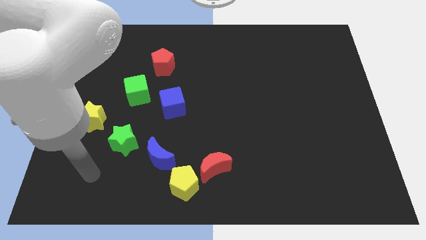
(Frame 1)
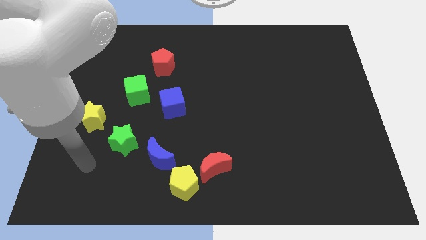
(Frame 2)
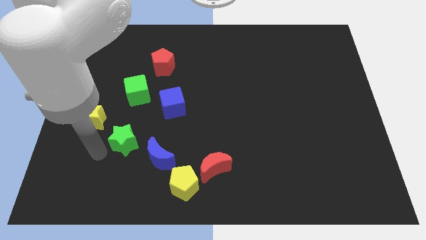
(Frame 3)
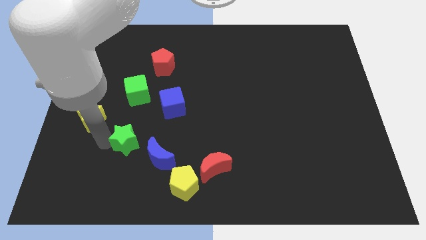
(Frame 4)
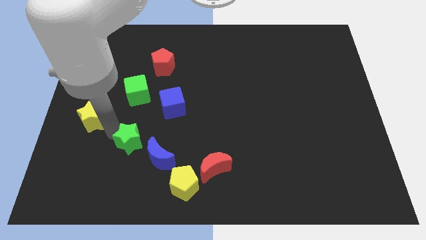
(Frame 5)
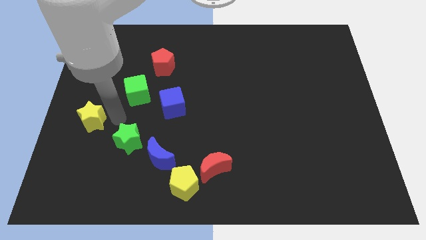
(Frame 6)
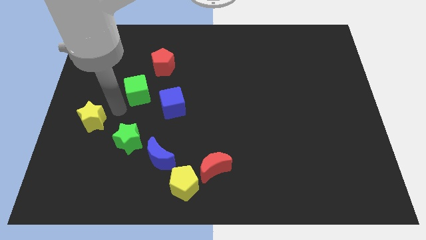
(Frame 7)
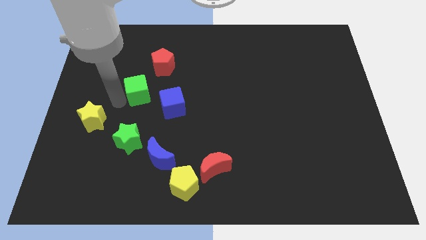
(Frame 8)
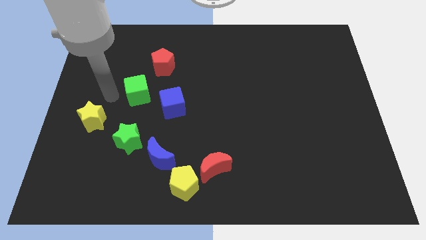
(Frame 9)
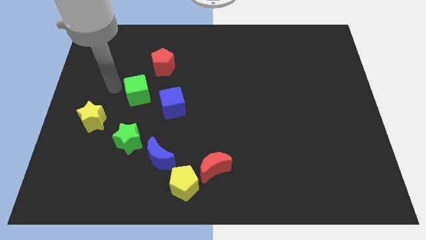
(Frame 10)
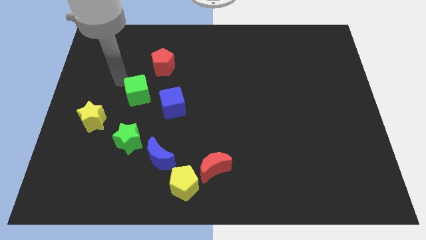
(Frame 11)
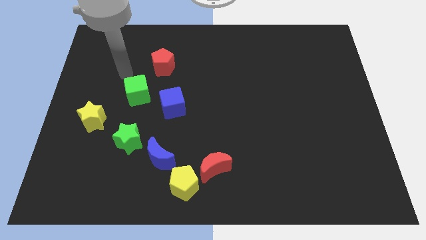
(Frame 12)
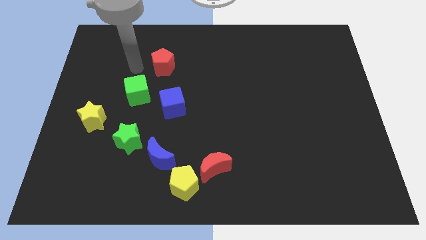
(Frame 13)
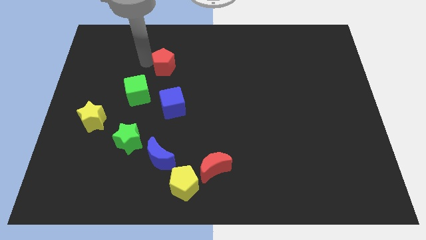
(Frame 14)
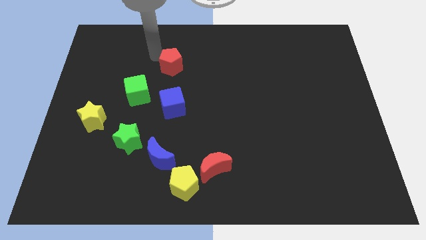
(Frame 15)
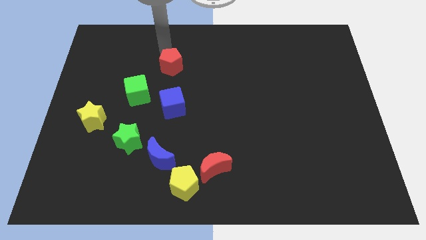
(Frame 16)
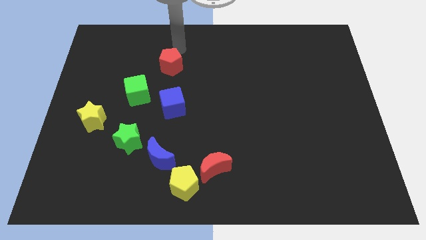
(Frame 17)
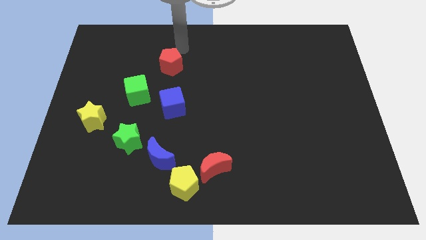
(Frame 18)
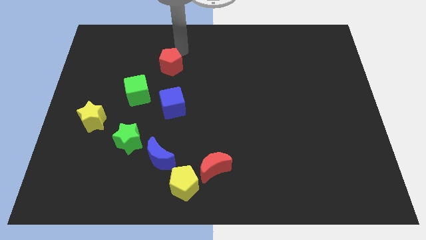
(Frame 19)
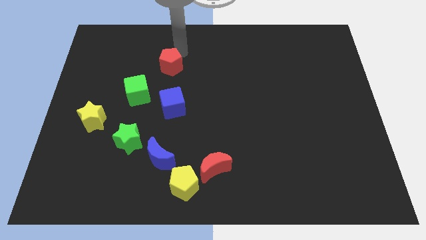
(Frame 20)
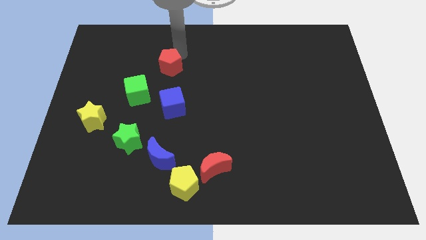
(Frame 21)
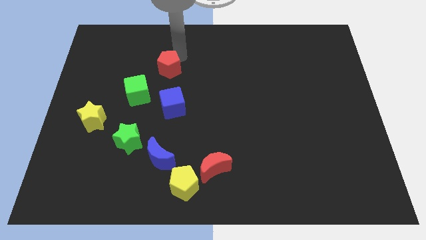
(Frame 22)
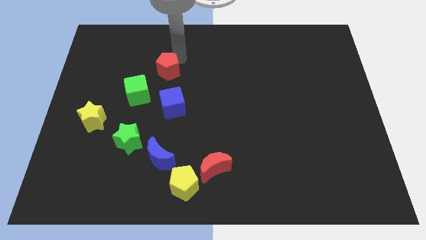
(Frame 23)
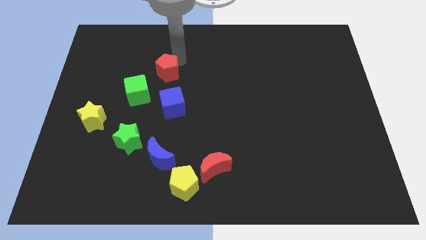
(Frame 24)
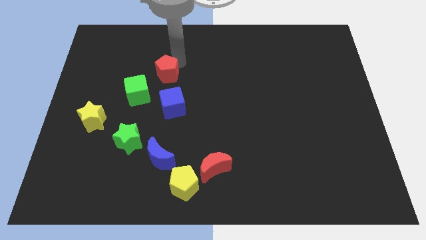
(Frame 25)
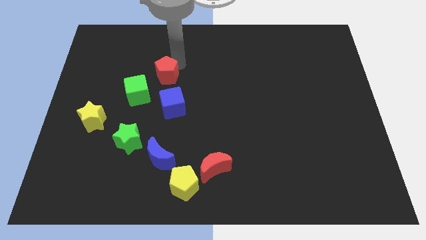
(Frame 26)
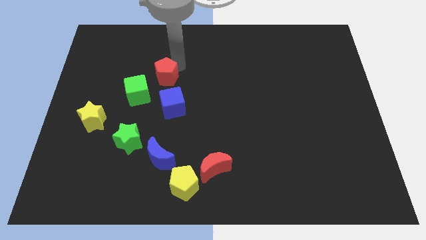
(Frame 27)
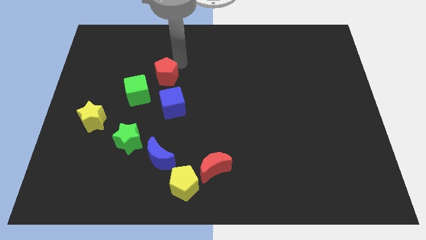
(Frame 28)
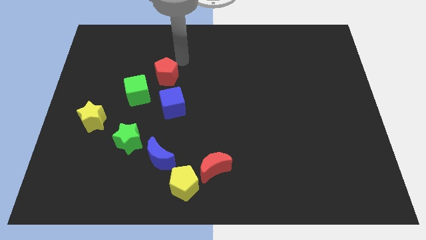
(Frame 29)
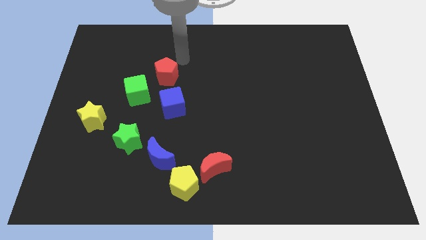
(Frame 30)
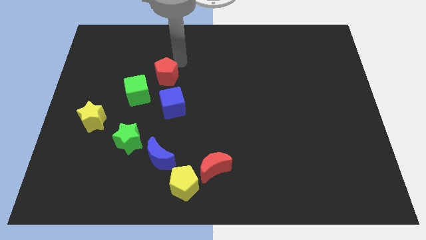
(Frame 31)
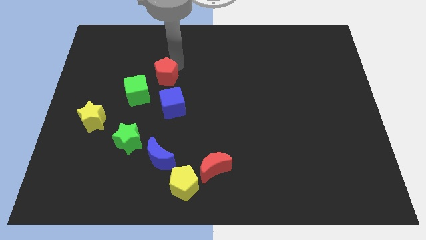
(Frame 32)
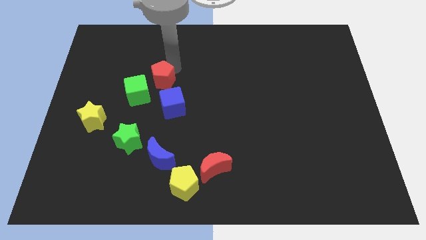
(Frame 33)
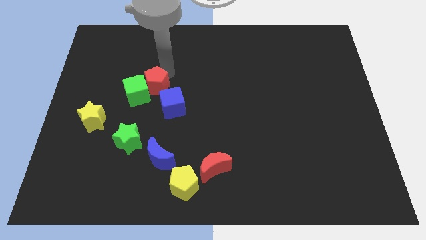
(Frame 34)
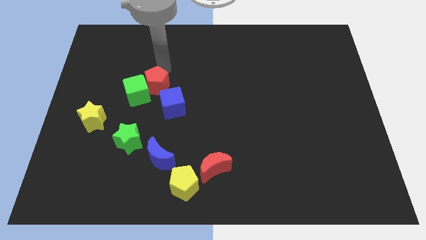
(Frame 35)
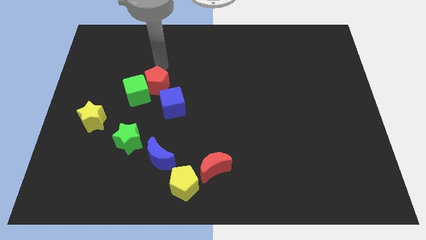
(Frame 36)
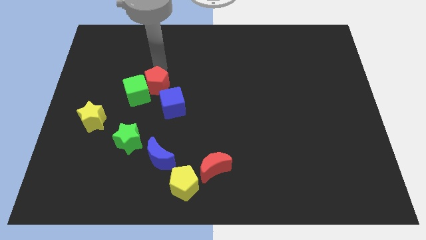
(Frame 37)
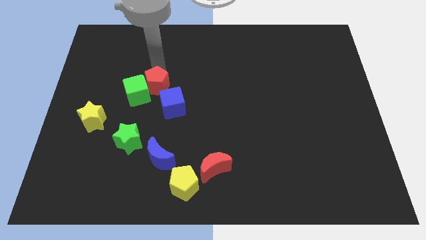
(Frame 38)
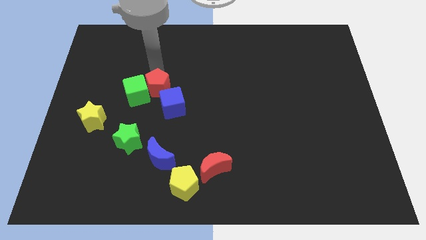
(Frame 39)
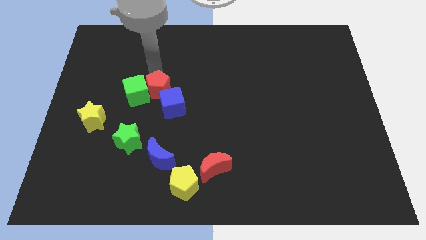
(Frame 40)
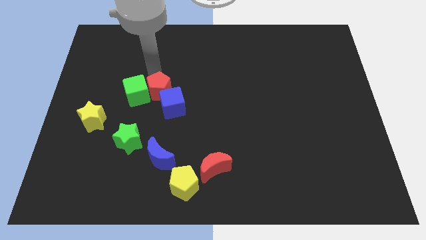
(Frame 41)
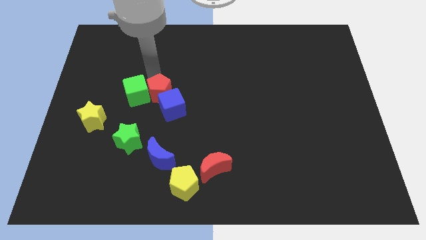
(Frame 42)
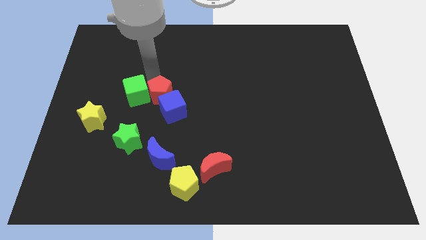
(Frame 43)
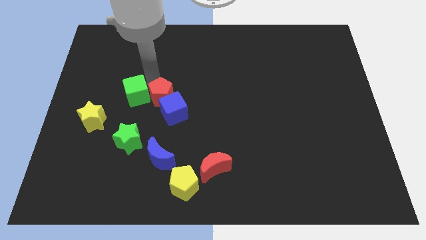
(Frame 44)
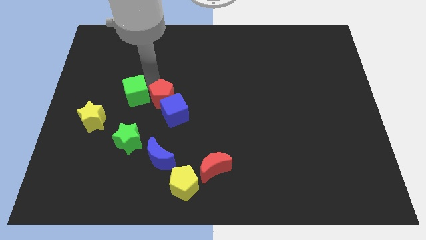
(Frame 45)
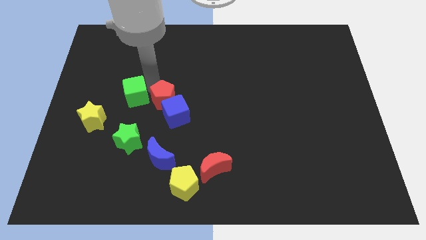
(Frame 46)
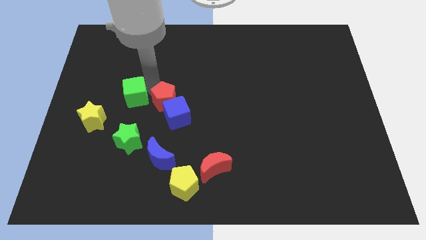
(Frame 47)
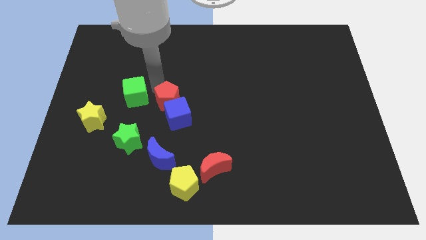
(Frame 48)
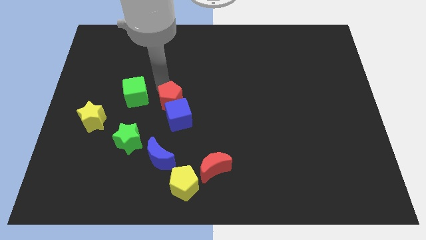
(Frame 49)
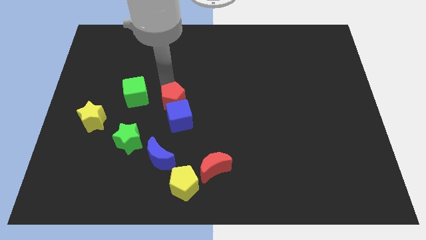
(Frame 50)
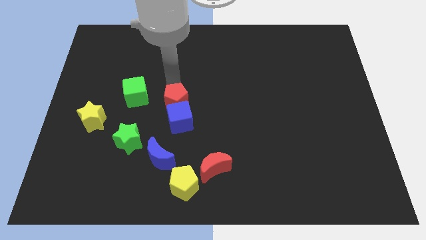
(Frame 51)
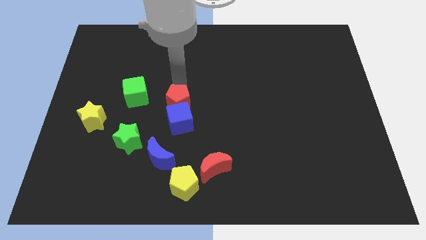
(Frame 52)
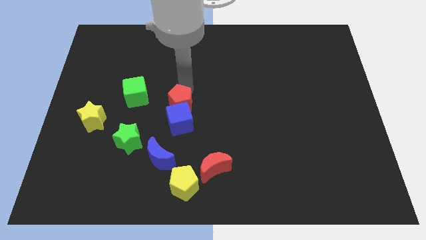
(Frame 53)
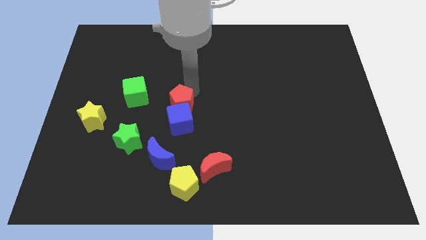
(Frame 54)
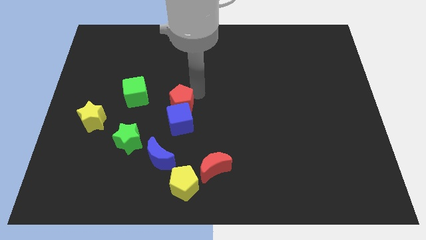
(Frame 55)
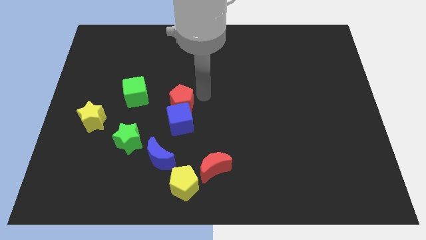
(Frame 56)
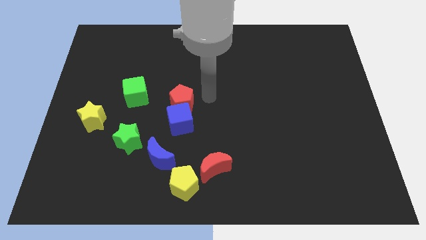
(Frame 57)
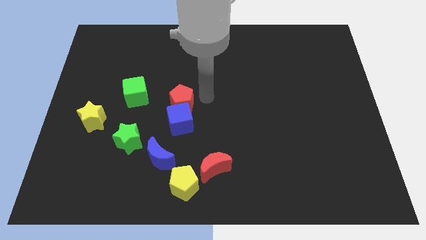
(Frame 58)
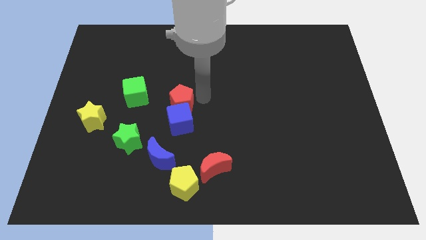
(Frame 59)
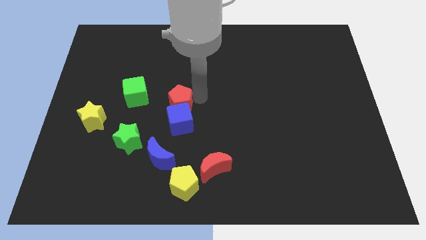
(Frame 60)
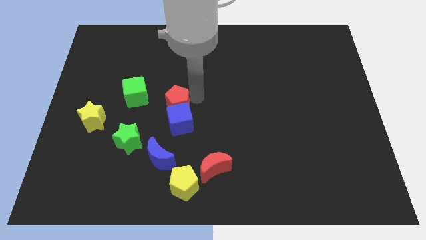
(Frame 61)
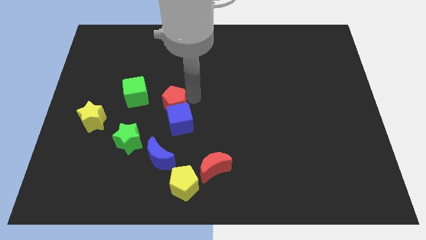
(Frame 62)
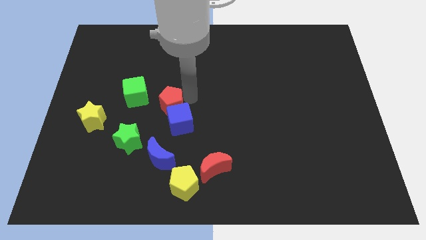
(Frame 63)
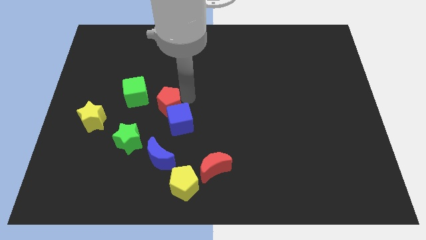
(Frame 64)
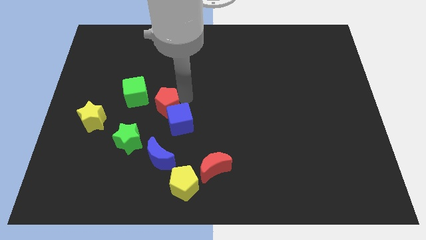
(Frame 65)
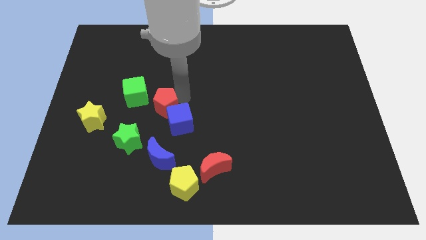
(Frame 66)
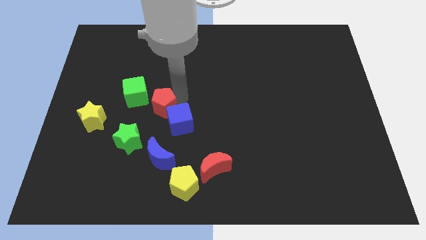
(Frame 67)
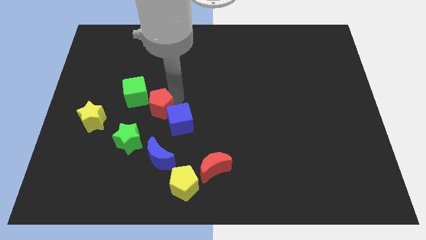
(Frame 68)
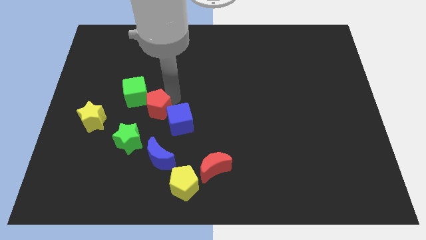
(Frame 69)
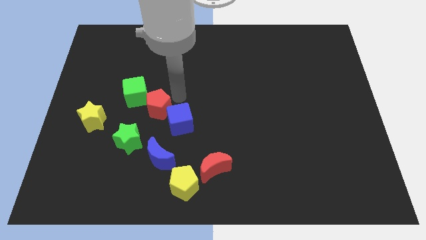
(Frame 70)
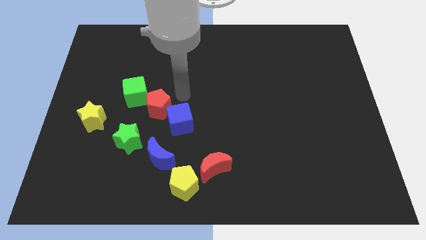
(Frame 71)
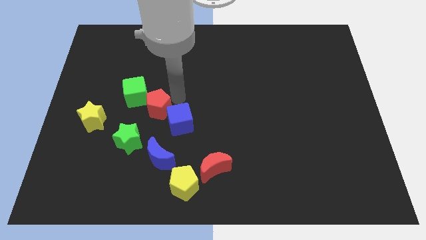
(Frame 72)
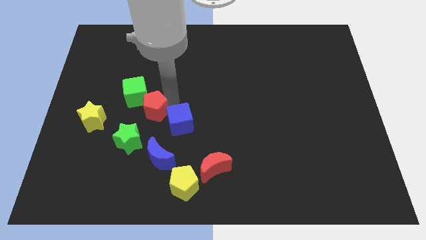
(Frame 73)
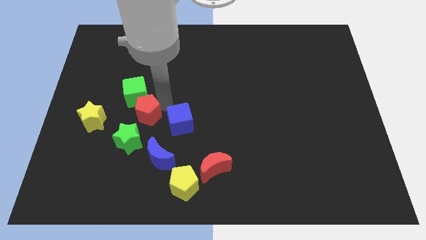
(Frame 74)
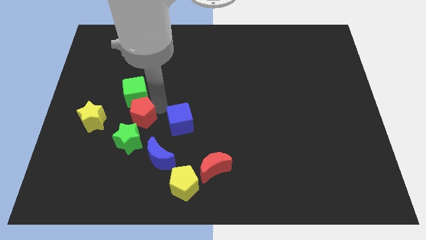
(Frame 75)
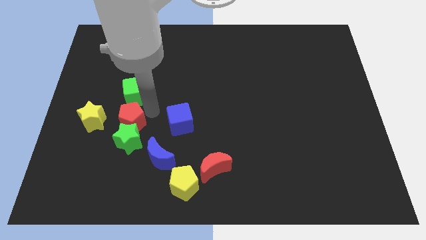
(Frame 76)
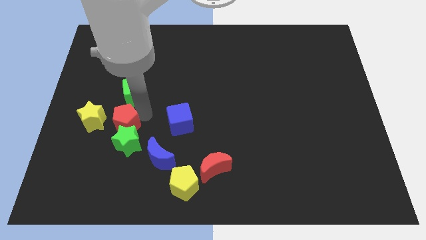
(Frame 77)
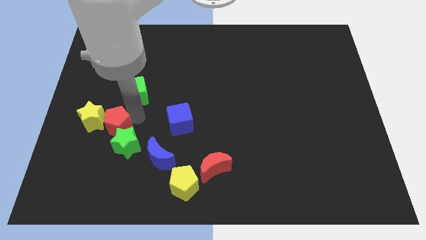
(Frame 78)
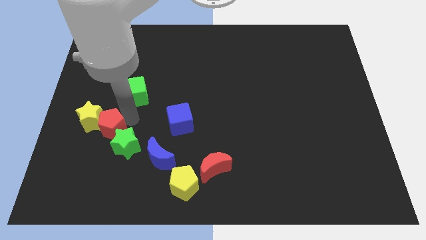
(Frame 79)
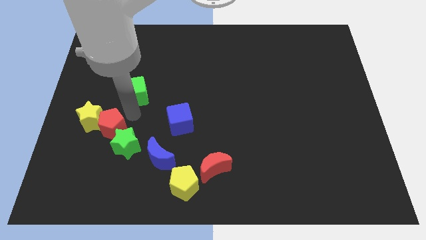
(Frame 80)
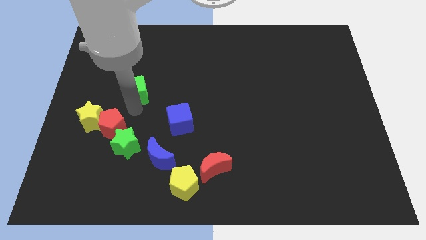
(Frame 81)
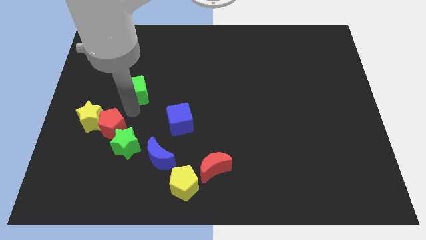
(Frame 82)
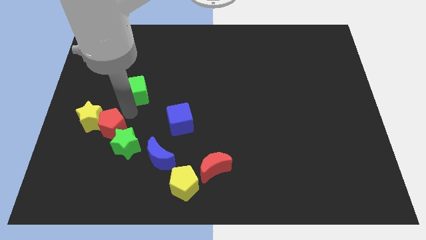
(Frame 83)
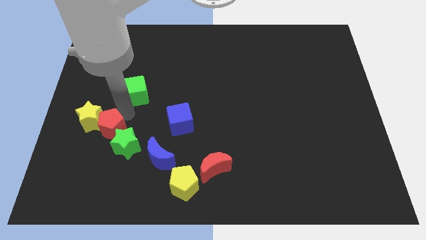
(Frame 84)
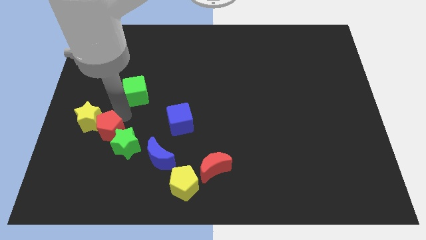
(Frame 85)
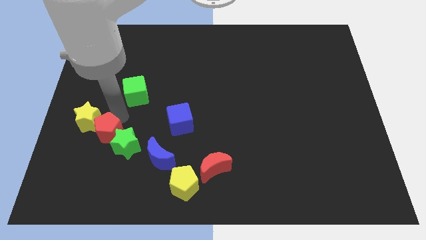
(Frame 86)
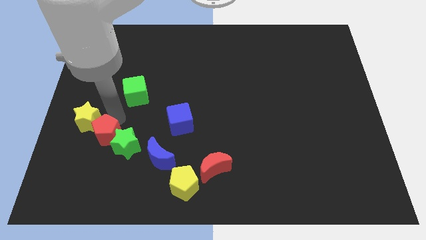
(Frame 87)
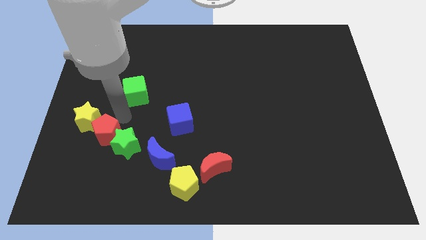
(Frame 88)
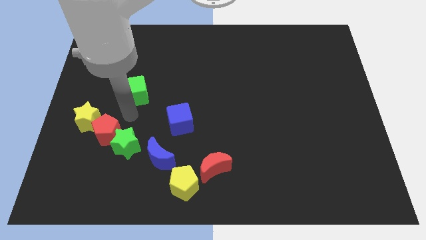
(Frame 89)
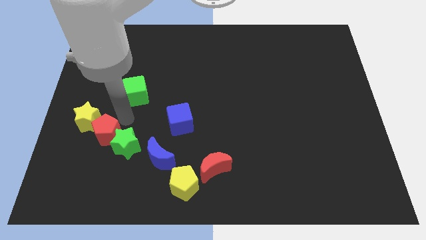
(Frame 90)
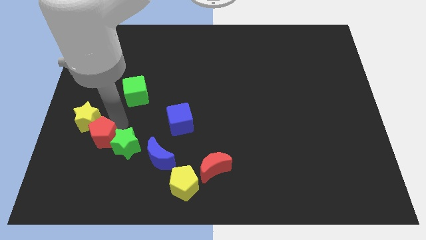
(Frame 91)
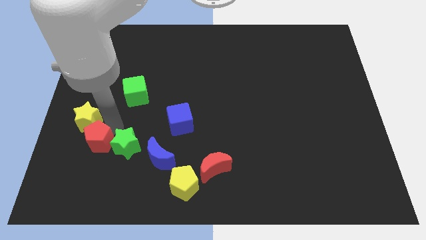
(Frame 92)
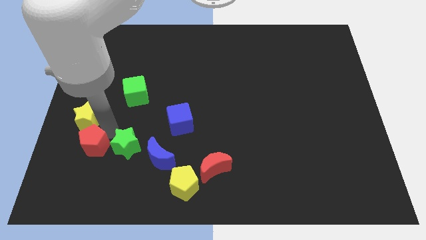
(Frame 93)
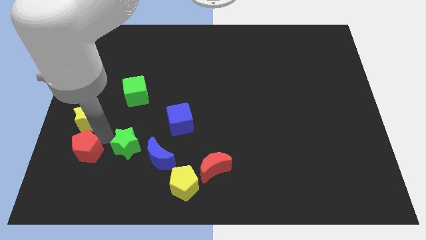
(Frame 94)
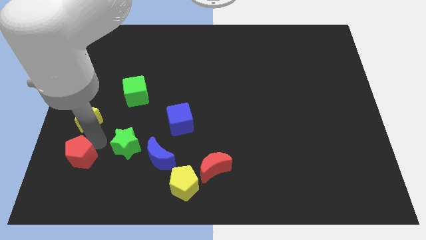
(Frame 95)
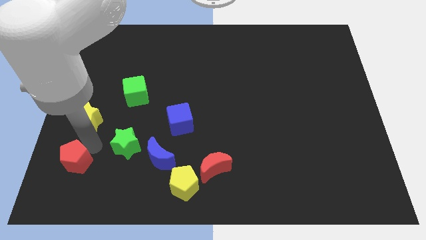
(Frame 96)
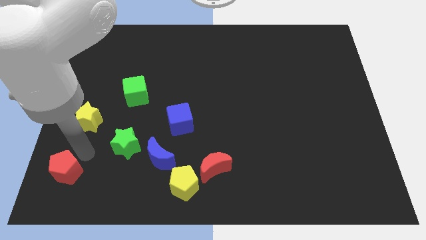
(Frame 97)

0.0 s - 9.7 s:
push the red pentagon to the bottom left corner
